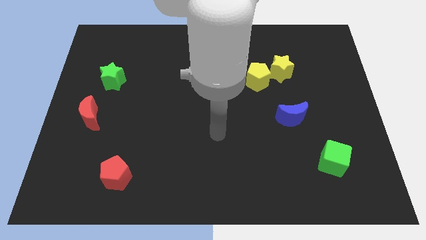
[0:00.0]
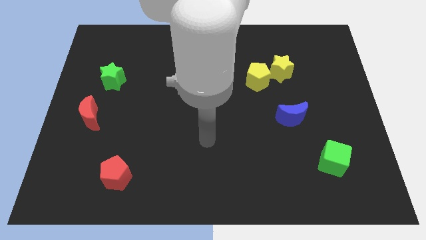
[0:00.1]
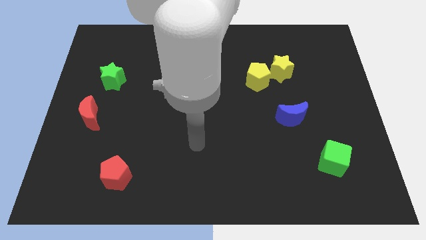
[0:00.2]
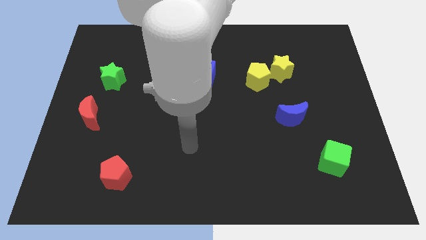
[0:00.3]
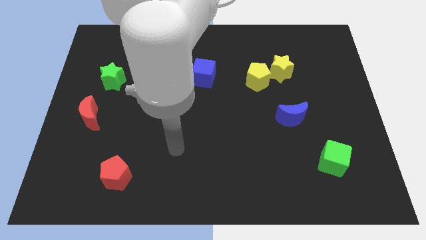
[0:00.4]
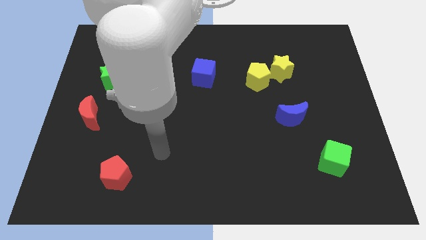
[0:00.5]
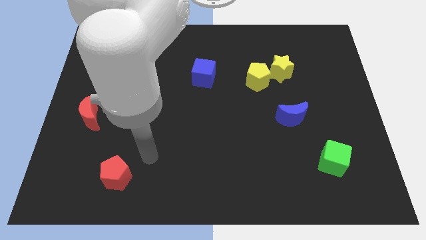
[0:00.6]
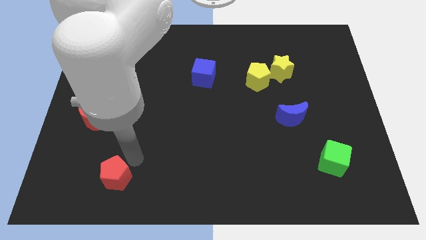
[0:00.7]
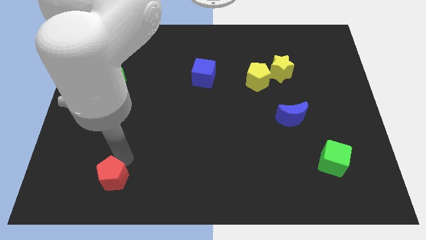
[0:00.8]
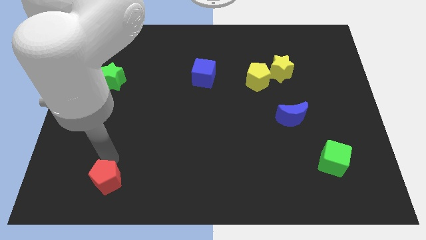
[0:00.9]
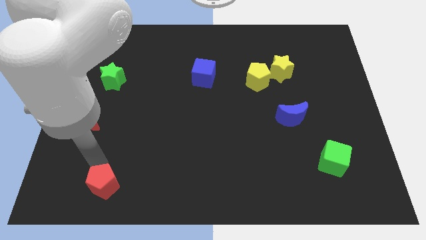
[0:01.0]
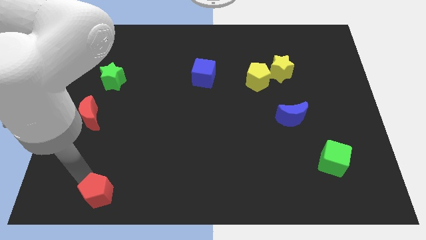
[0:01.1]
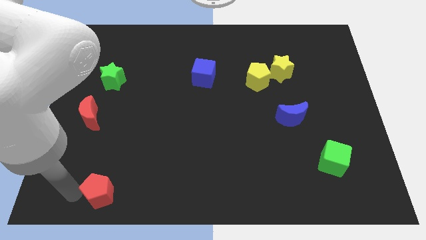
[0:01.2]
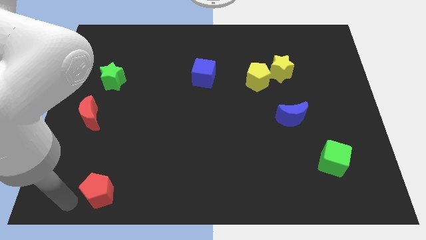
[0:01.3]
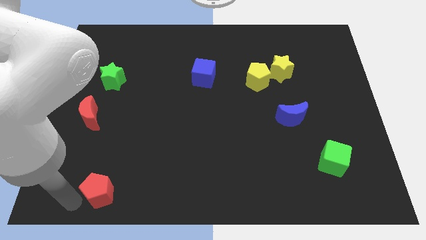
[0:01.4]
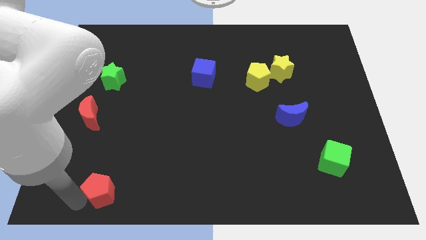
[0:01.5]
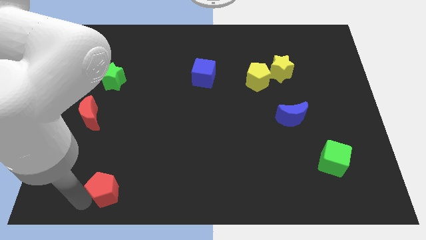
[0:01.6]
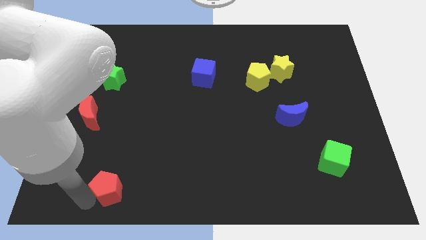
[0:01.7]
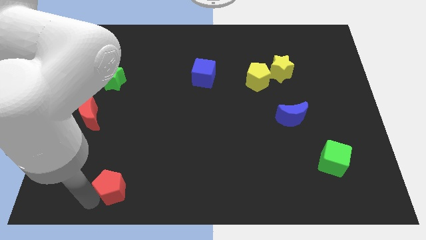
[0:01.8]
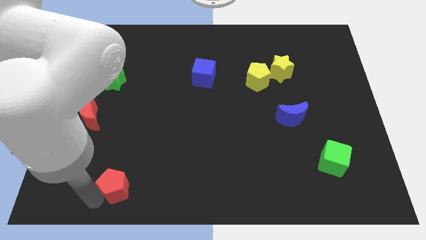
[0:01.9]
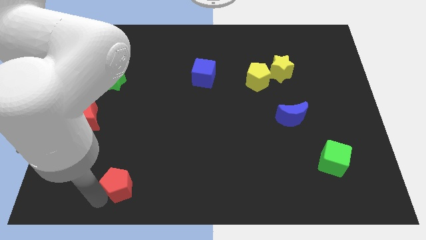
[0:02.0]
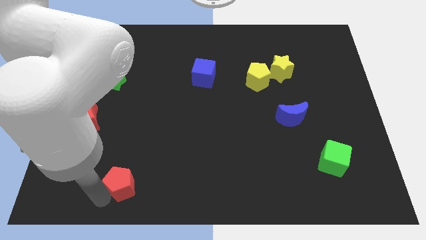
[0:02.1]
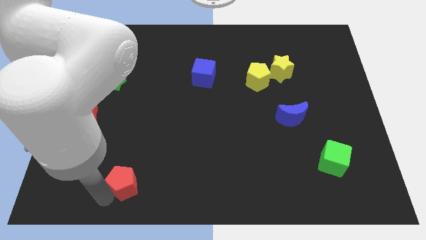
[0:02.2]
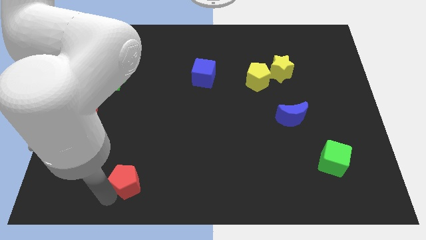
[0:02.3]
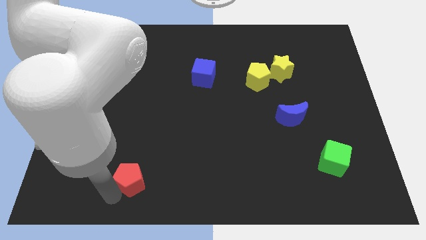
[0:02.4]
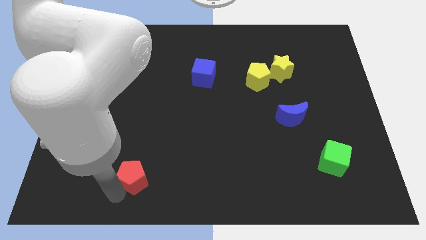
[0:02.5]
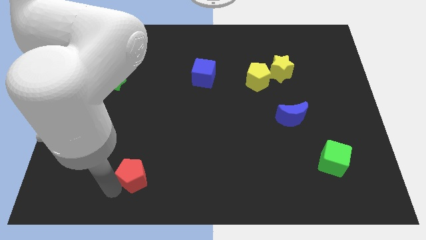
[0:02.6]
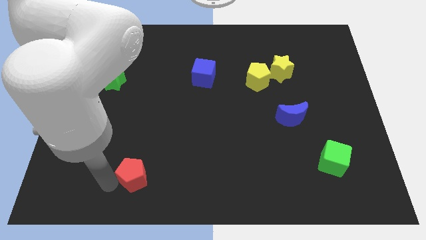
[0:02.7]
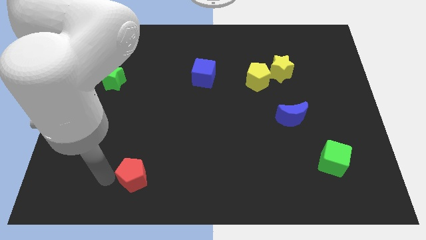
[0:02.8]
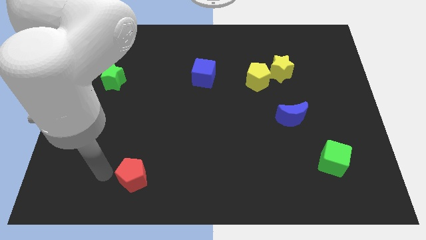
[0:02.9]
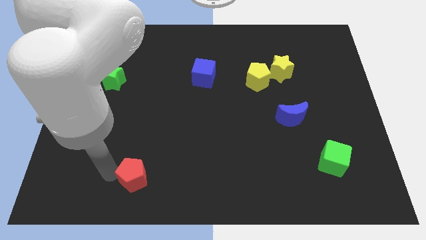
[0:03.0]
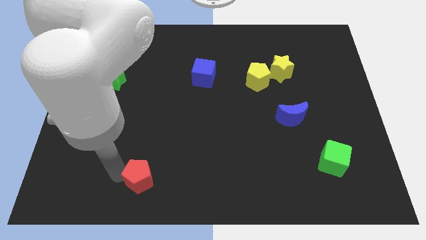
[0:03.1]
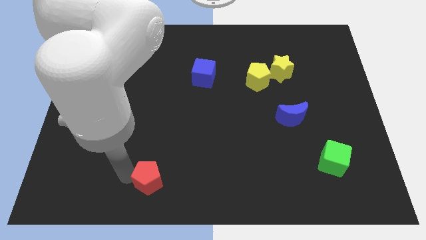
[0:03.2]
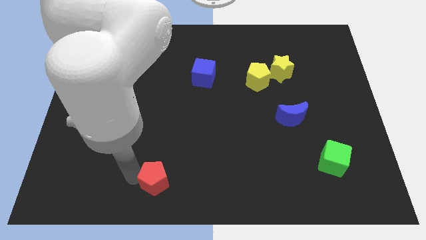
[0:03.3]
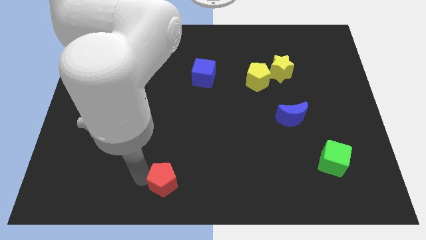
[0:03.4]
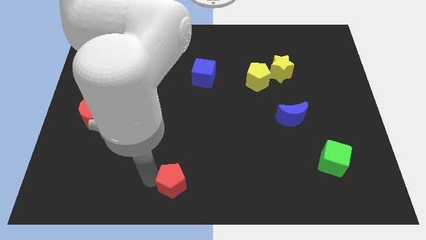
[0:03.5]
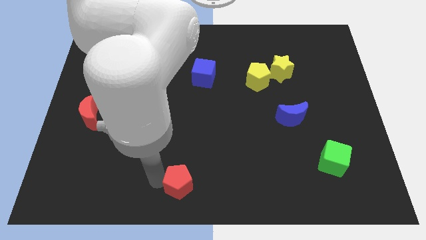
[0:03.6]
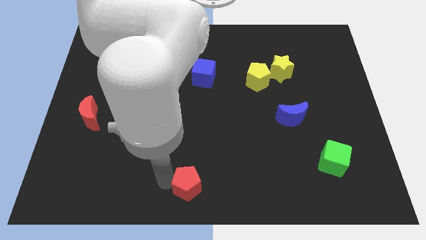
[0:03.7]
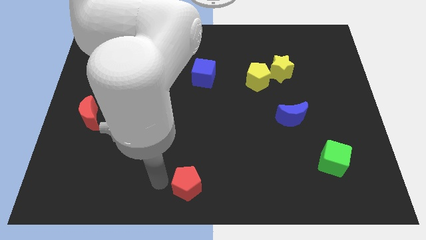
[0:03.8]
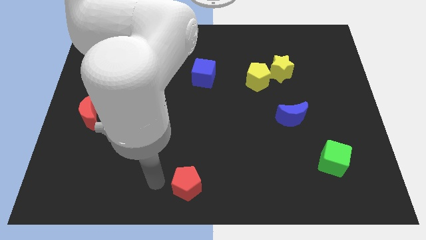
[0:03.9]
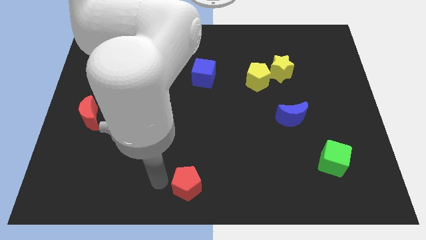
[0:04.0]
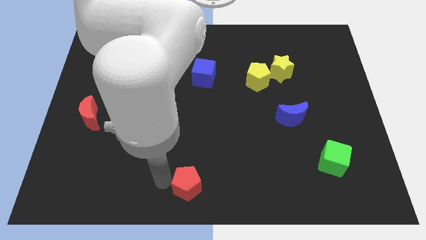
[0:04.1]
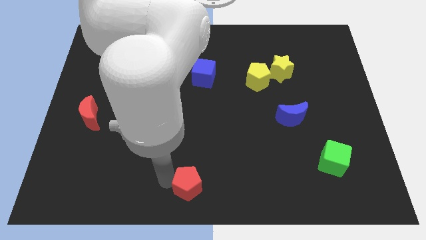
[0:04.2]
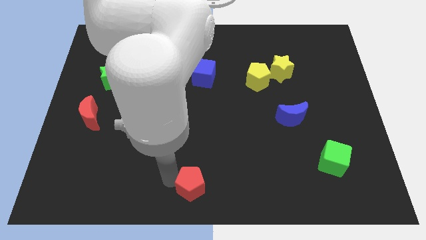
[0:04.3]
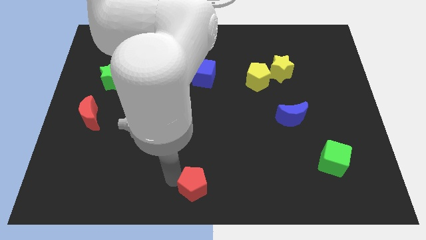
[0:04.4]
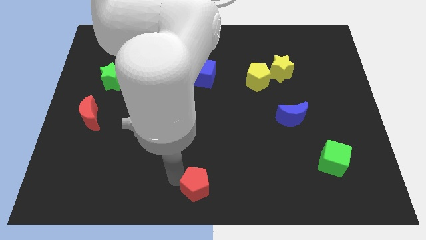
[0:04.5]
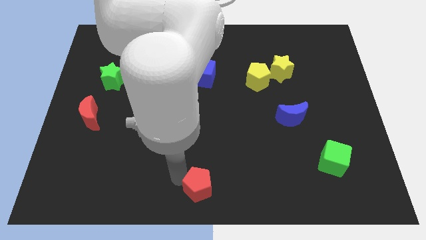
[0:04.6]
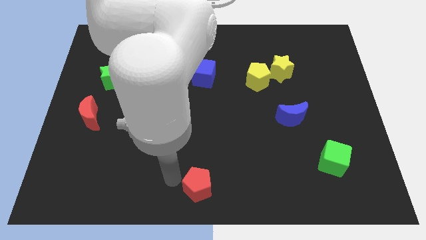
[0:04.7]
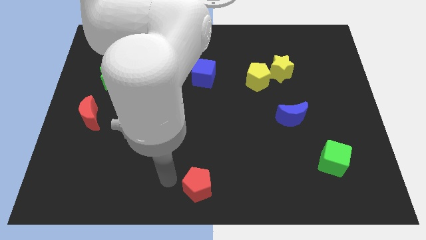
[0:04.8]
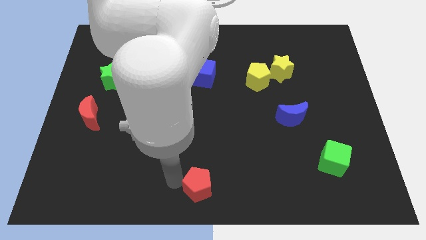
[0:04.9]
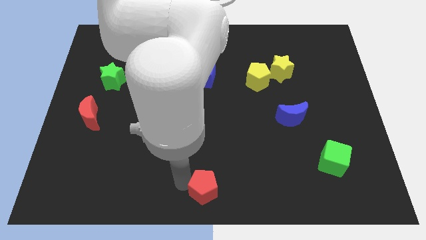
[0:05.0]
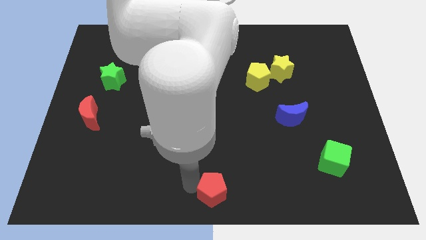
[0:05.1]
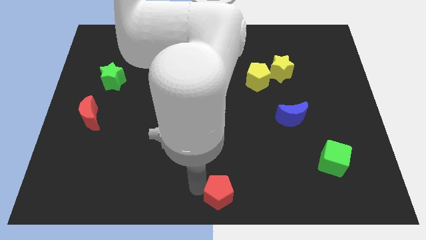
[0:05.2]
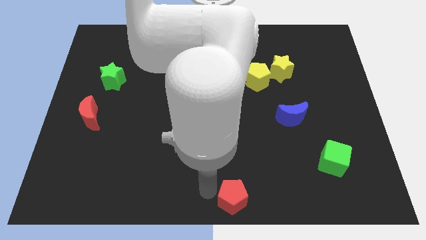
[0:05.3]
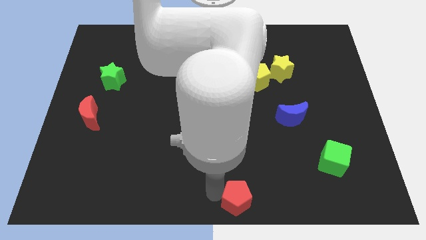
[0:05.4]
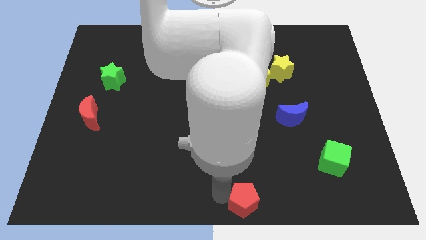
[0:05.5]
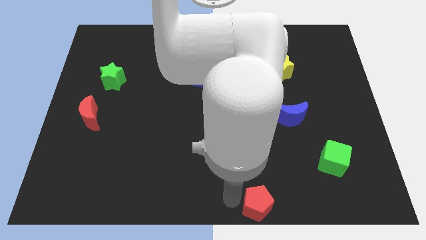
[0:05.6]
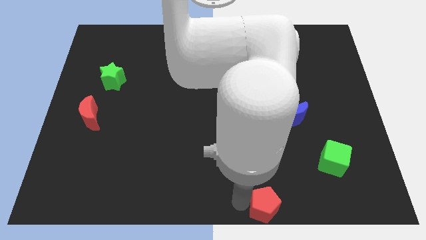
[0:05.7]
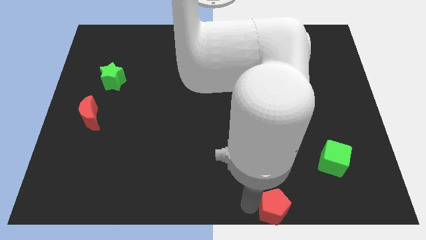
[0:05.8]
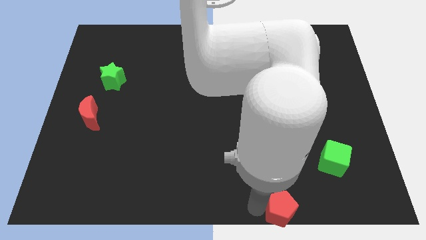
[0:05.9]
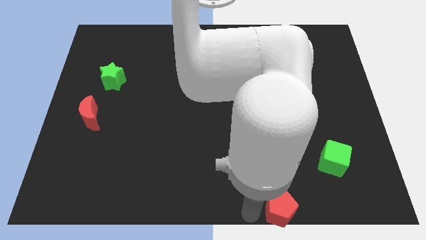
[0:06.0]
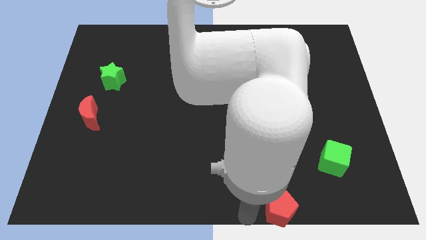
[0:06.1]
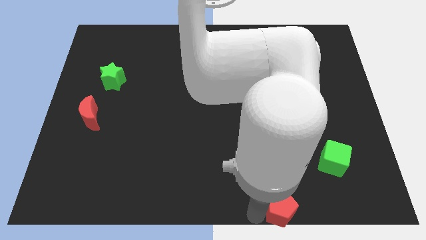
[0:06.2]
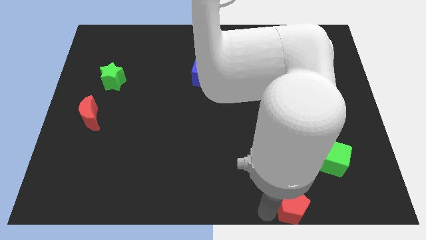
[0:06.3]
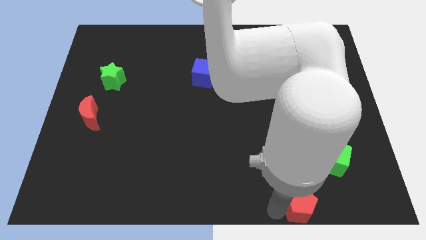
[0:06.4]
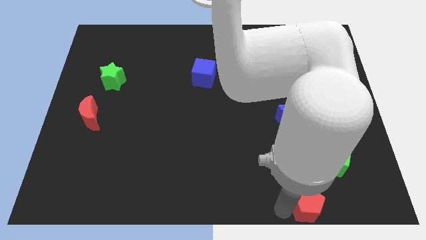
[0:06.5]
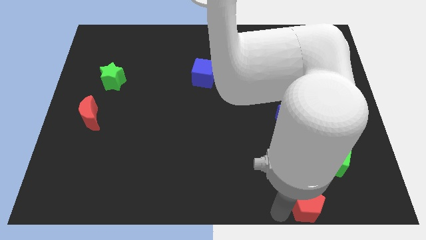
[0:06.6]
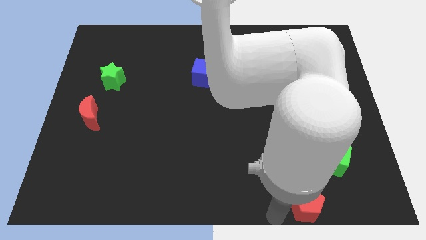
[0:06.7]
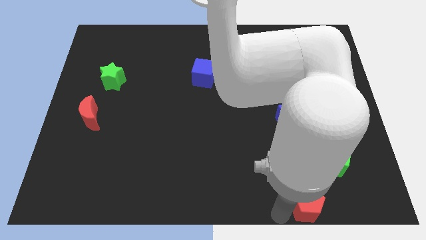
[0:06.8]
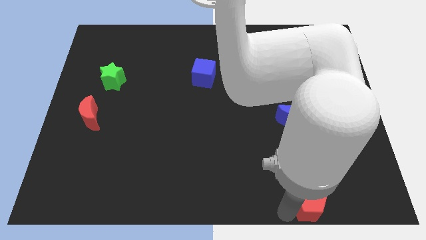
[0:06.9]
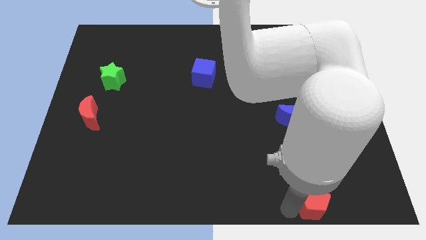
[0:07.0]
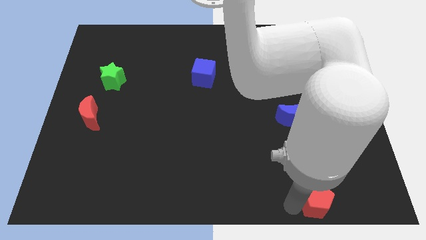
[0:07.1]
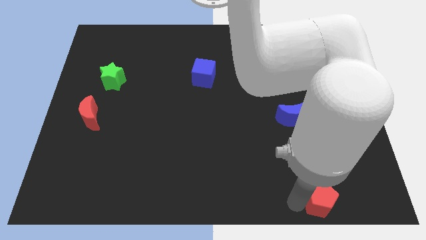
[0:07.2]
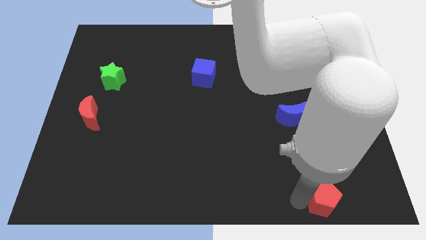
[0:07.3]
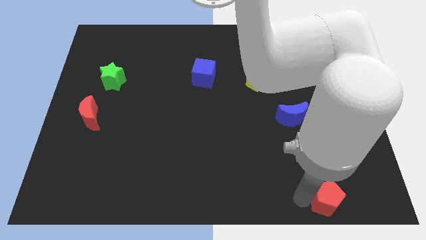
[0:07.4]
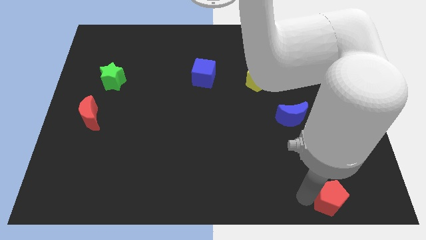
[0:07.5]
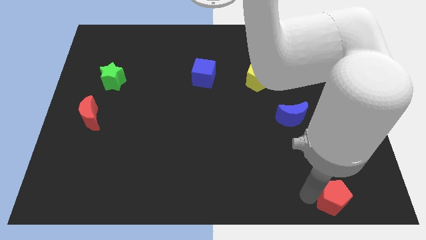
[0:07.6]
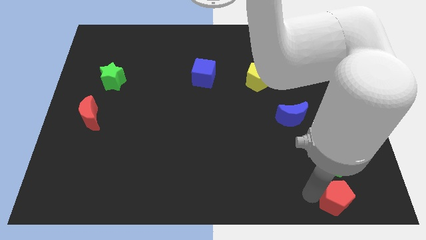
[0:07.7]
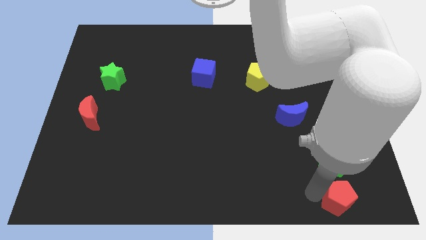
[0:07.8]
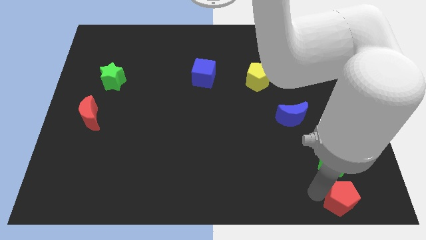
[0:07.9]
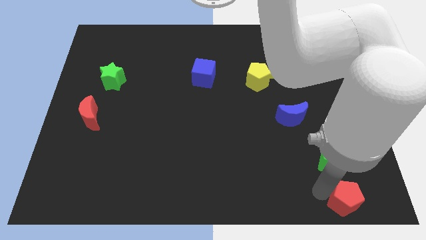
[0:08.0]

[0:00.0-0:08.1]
move the red pentagon to the bottom right of the board
